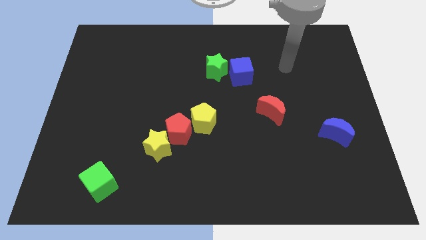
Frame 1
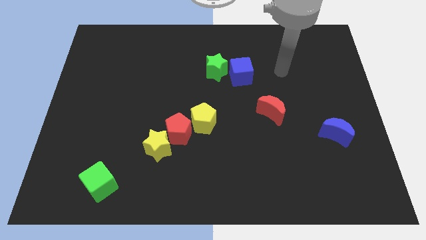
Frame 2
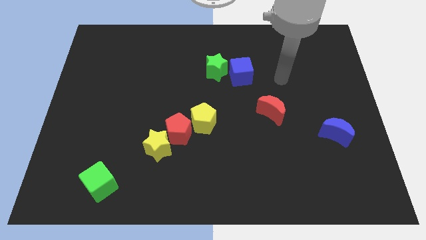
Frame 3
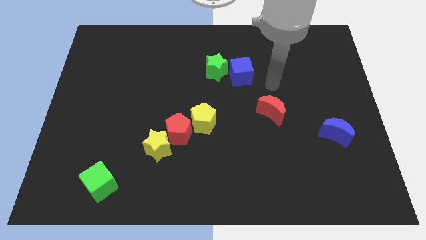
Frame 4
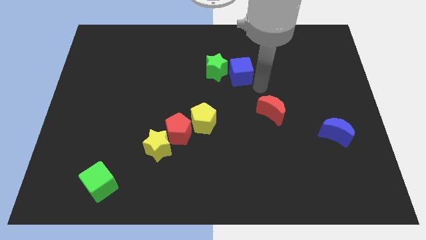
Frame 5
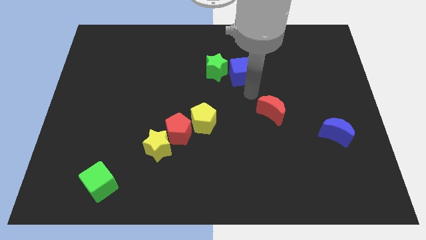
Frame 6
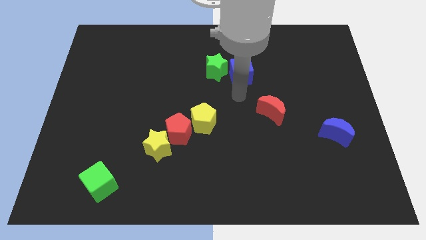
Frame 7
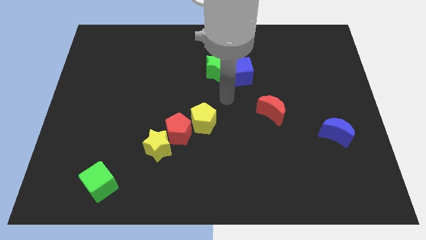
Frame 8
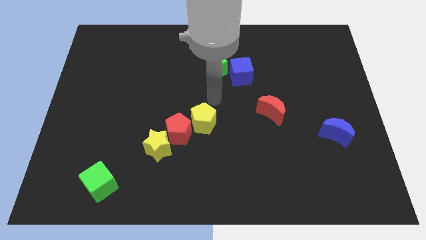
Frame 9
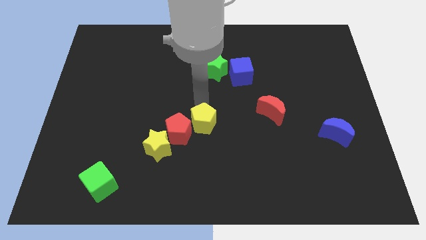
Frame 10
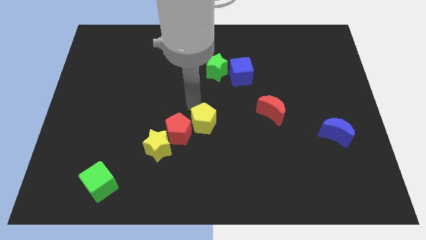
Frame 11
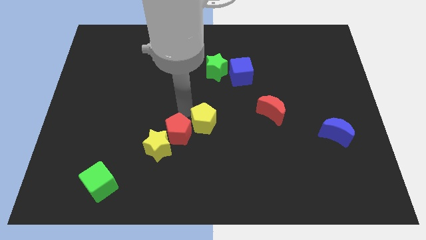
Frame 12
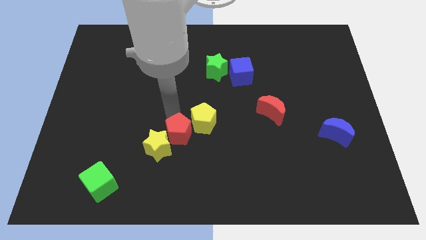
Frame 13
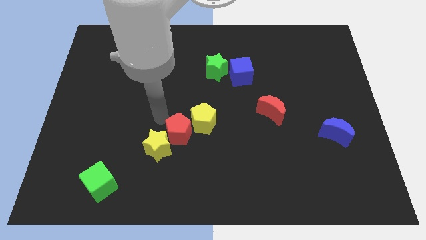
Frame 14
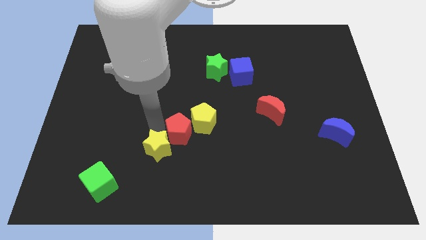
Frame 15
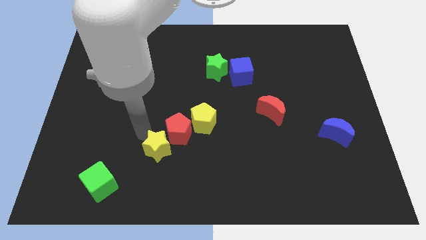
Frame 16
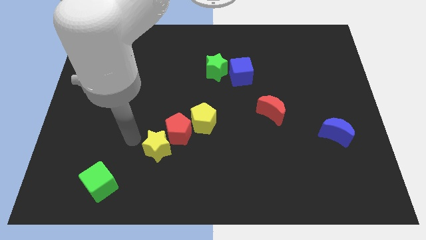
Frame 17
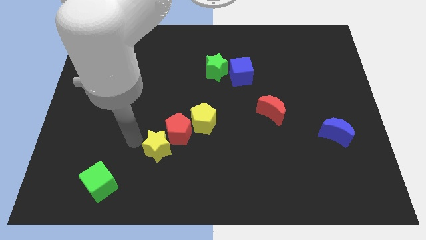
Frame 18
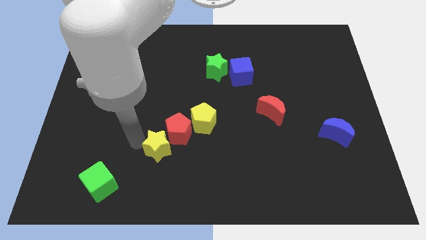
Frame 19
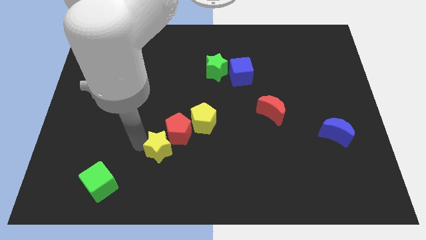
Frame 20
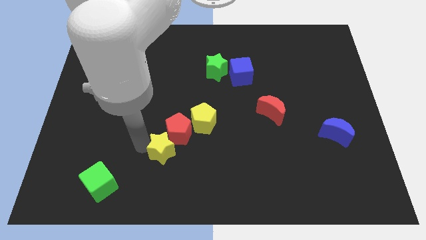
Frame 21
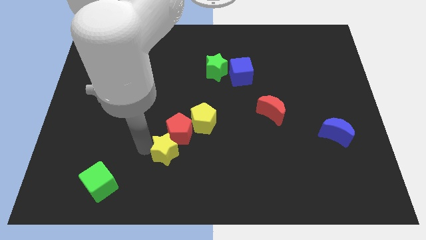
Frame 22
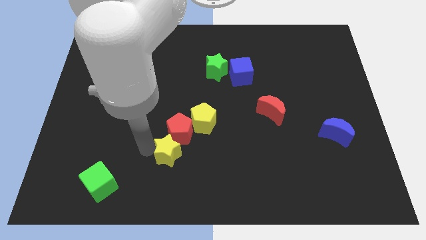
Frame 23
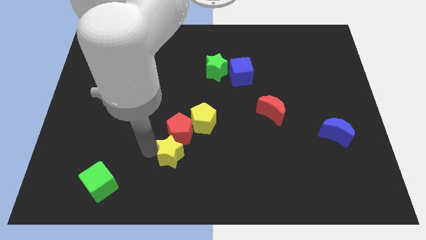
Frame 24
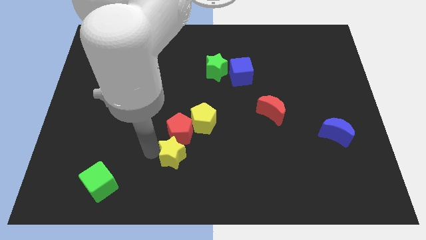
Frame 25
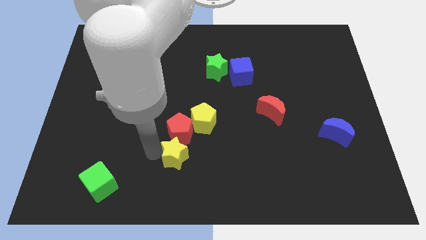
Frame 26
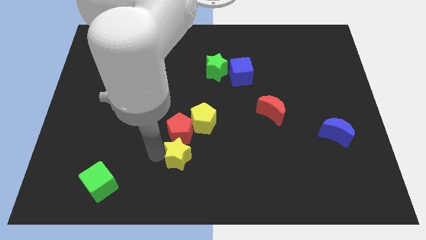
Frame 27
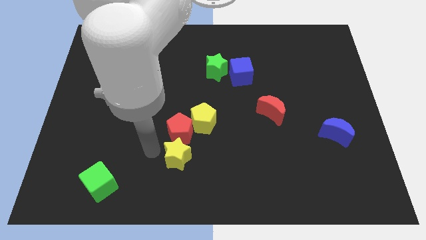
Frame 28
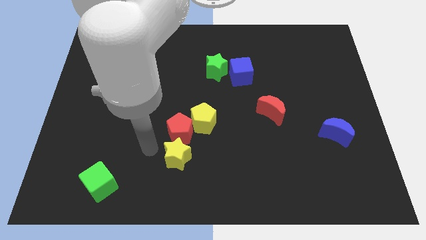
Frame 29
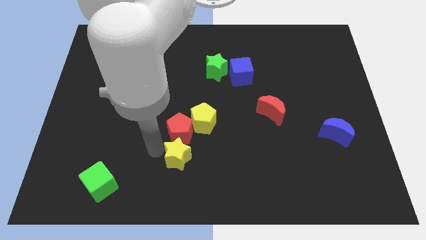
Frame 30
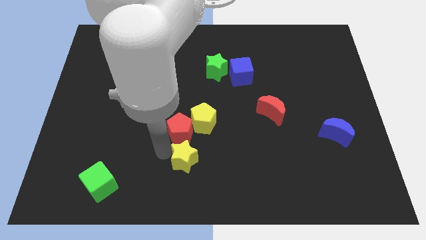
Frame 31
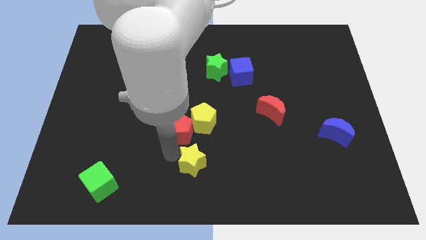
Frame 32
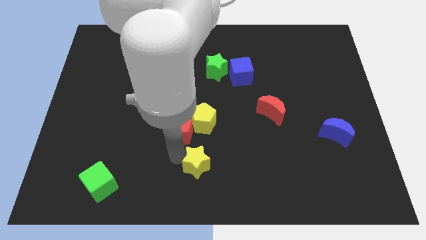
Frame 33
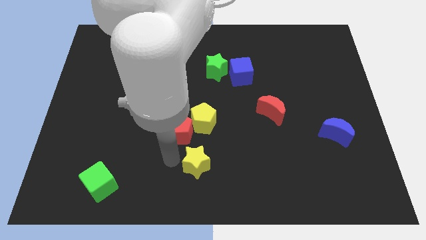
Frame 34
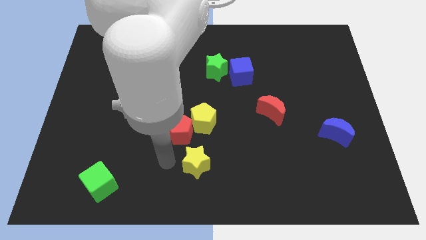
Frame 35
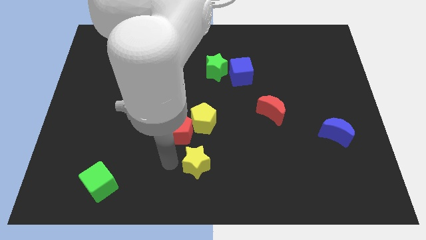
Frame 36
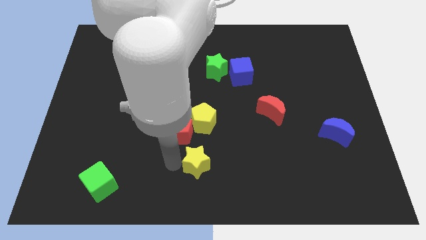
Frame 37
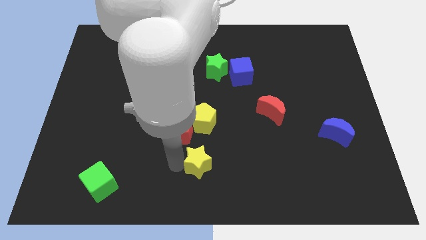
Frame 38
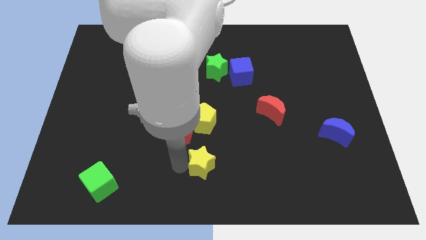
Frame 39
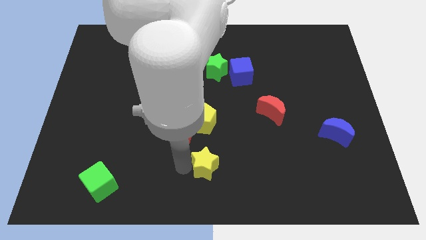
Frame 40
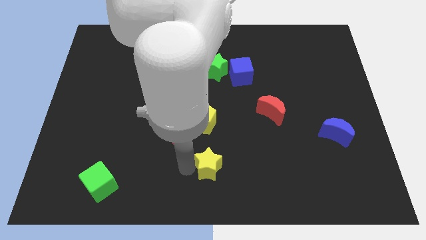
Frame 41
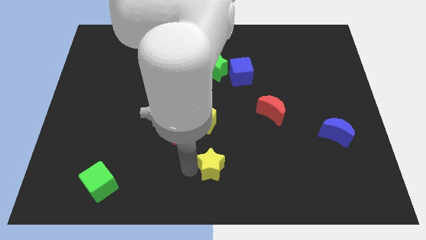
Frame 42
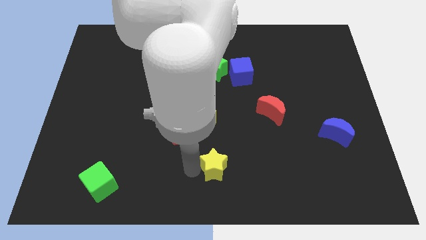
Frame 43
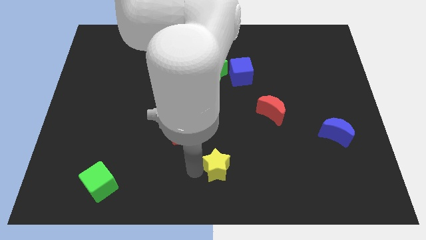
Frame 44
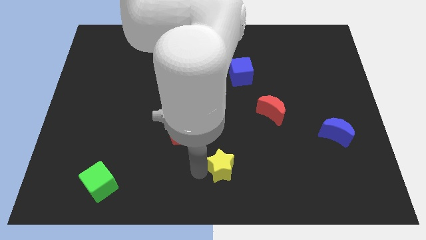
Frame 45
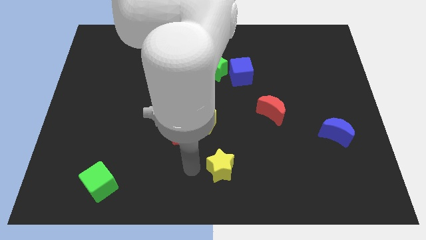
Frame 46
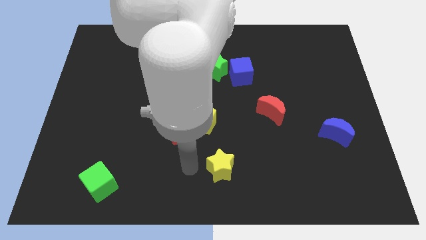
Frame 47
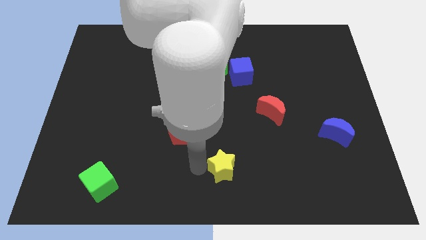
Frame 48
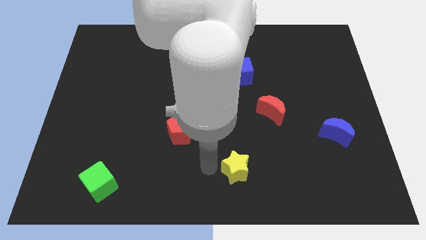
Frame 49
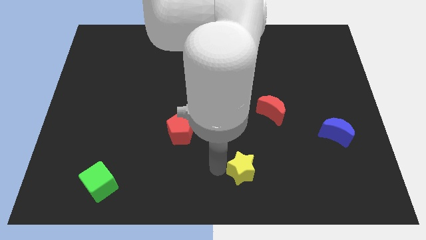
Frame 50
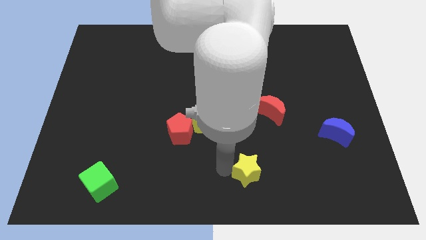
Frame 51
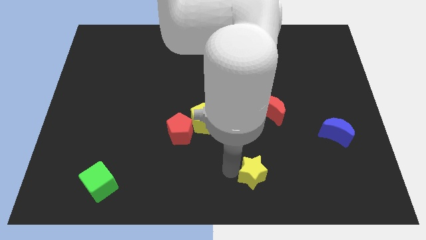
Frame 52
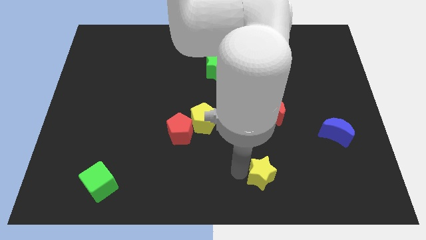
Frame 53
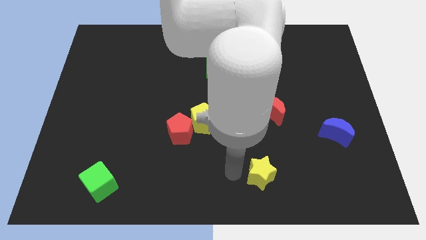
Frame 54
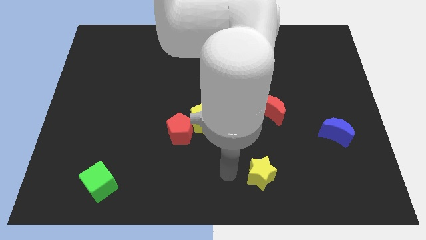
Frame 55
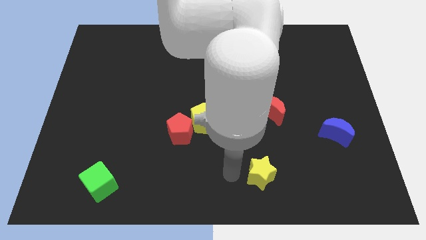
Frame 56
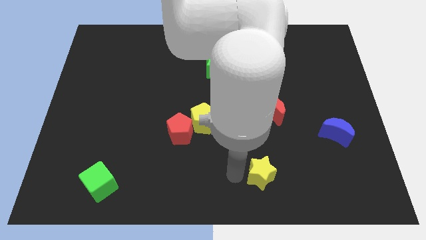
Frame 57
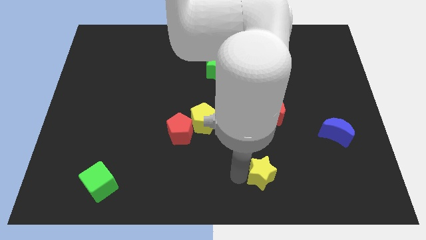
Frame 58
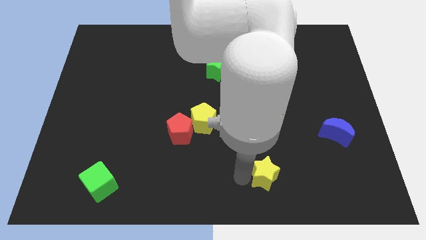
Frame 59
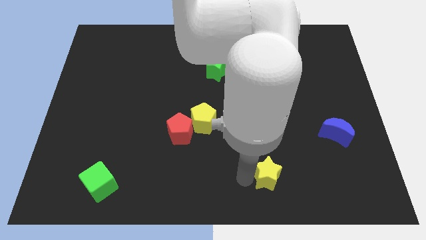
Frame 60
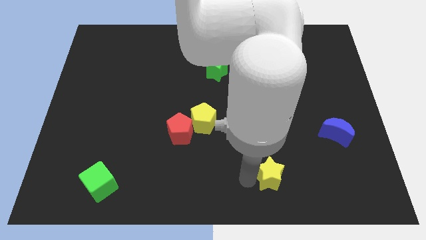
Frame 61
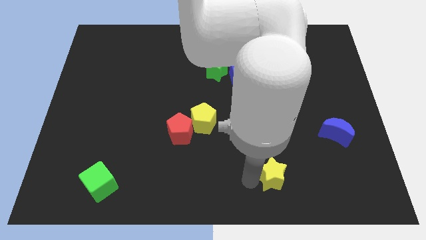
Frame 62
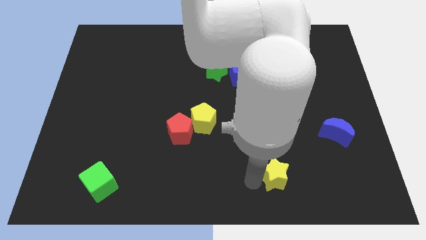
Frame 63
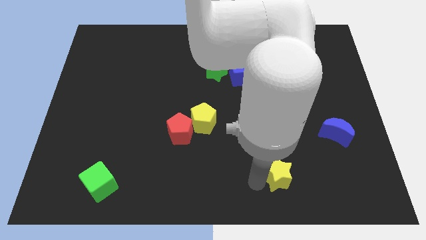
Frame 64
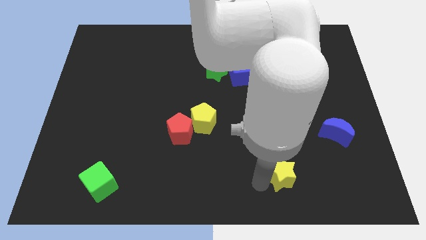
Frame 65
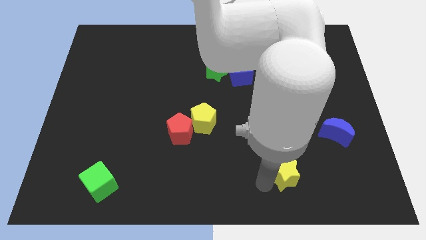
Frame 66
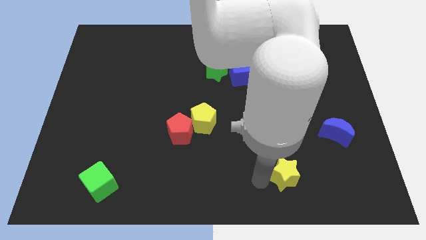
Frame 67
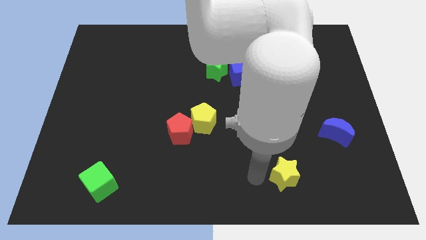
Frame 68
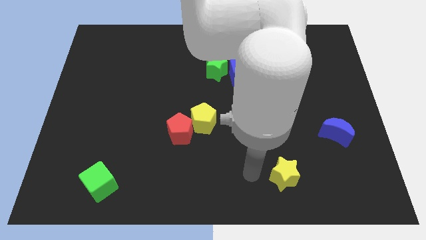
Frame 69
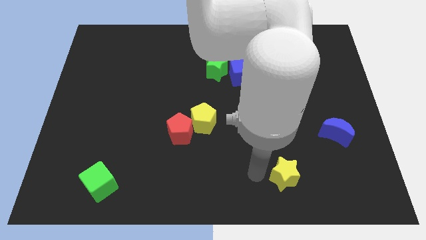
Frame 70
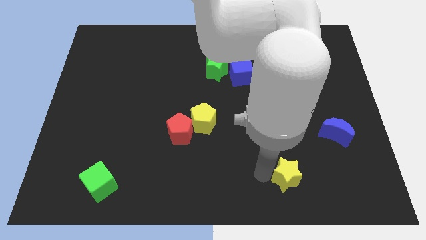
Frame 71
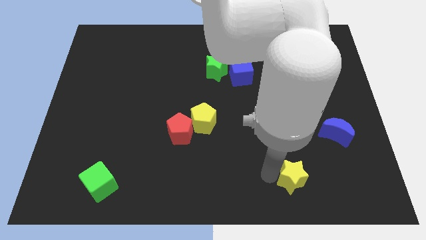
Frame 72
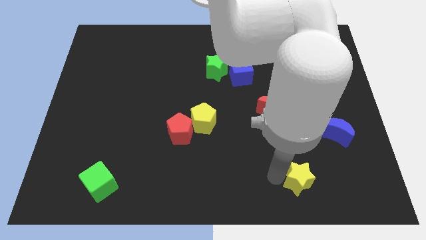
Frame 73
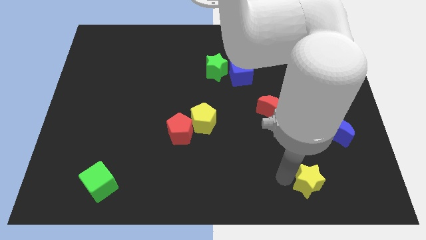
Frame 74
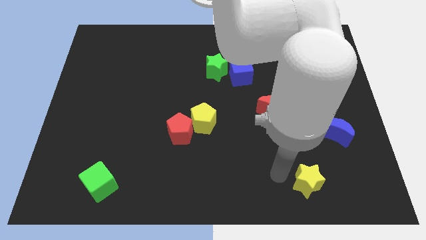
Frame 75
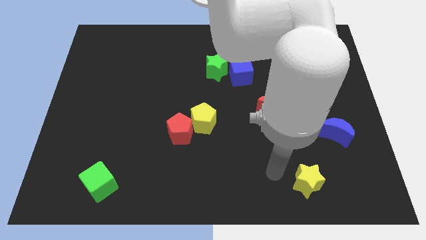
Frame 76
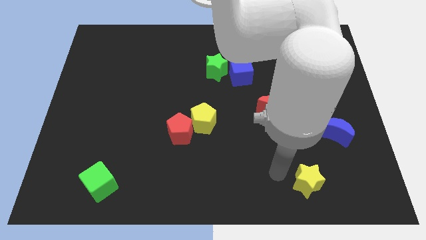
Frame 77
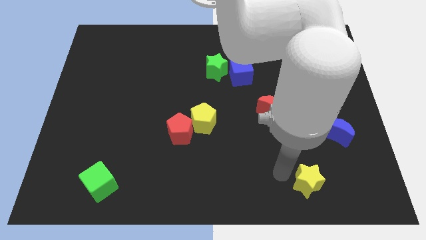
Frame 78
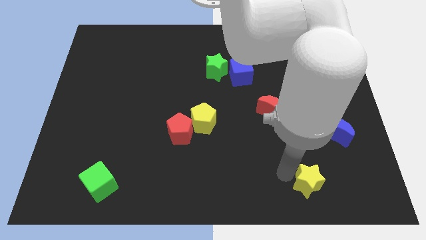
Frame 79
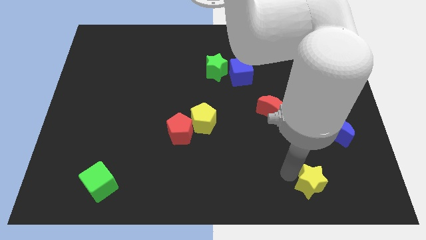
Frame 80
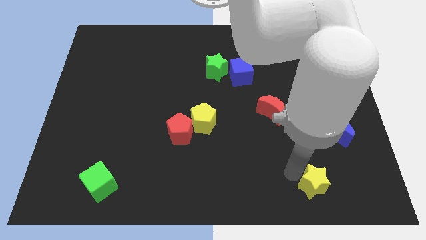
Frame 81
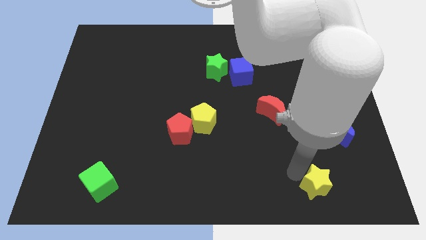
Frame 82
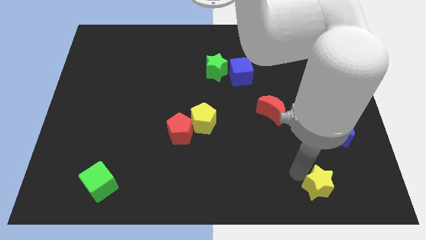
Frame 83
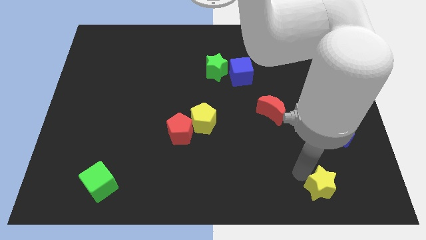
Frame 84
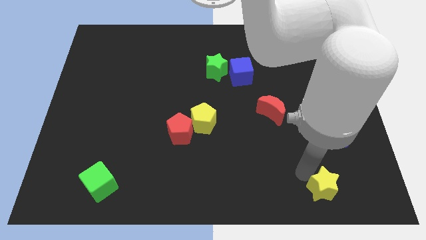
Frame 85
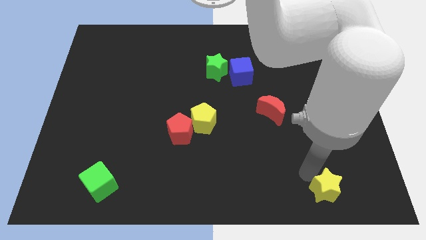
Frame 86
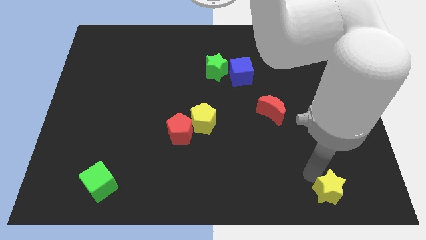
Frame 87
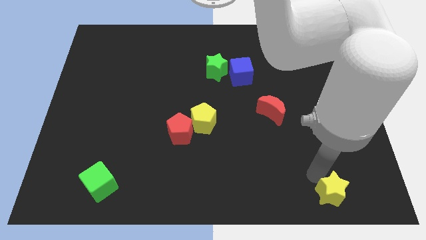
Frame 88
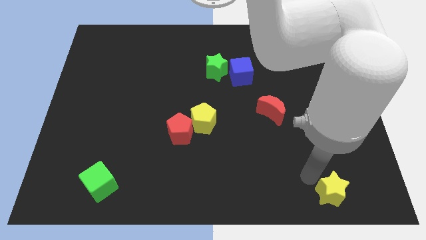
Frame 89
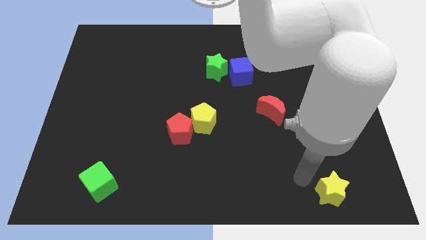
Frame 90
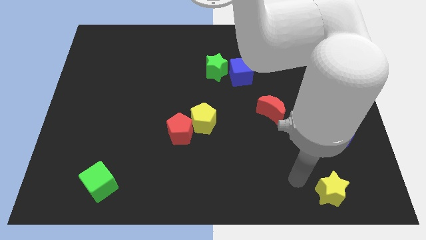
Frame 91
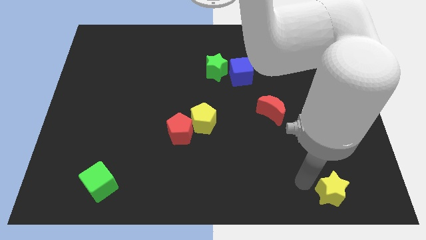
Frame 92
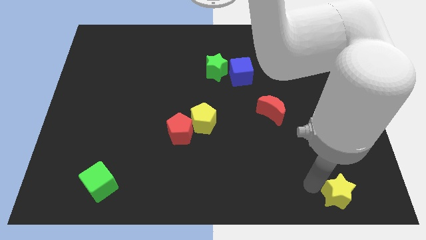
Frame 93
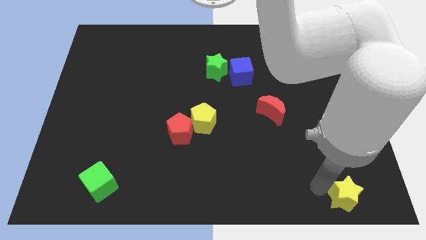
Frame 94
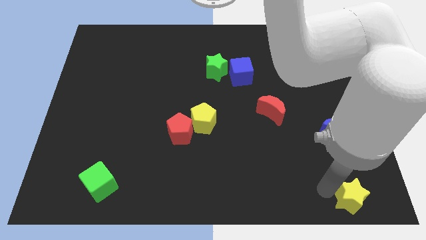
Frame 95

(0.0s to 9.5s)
slide the yellow star to the bottom right corner
